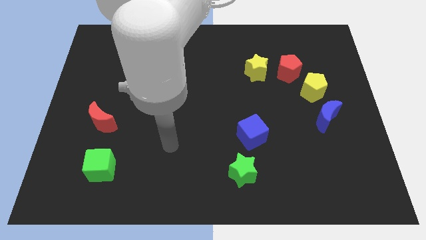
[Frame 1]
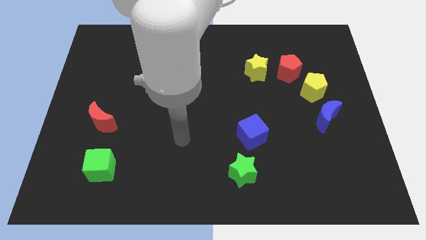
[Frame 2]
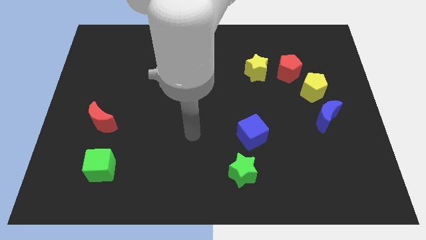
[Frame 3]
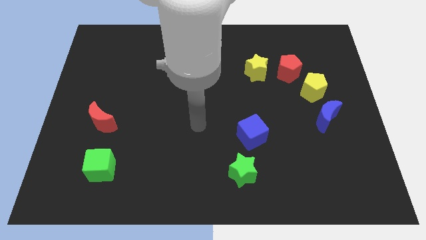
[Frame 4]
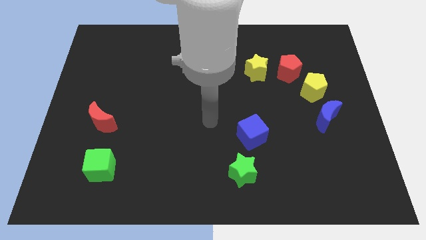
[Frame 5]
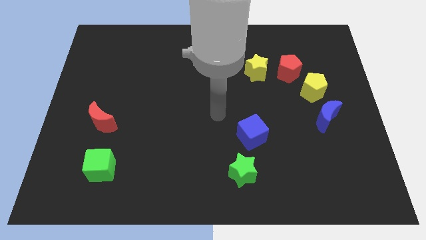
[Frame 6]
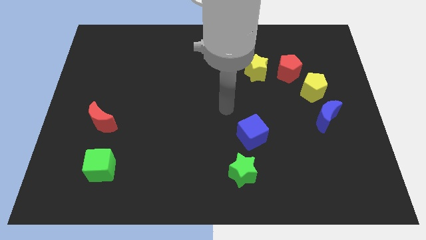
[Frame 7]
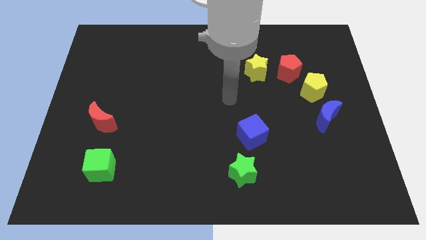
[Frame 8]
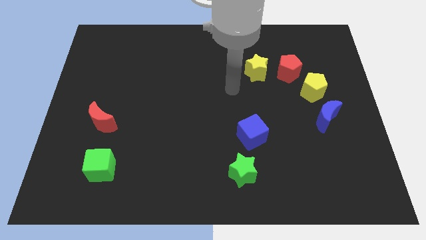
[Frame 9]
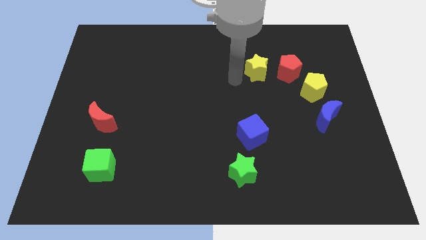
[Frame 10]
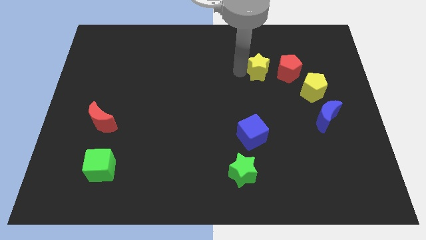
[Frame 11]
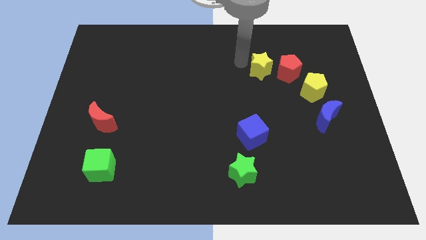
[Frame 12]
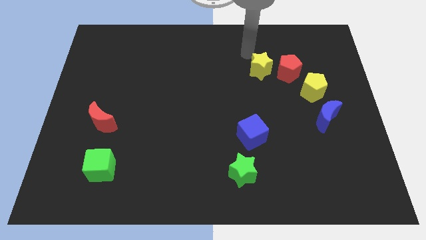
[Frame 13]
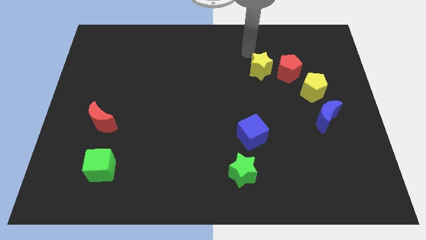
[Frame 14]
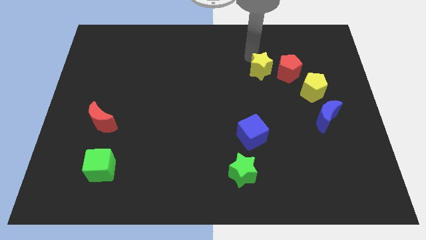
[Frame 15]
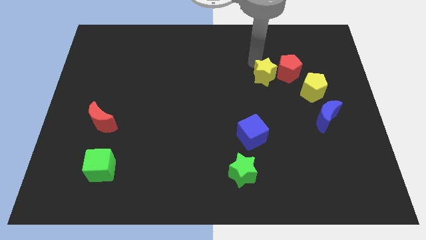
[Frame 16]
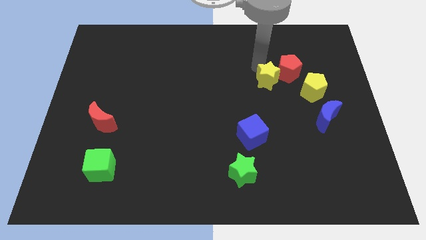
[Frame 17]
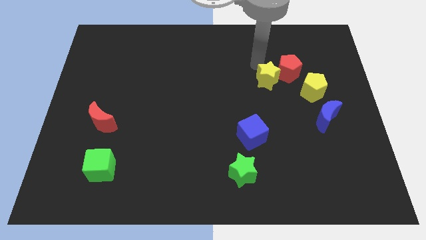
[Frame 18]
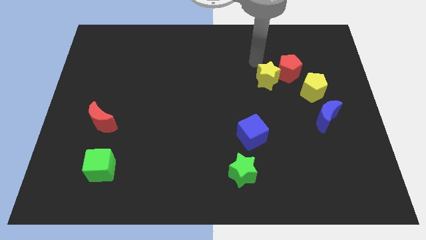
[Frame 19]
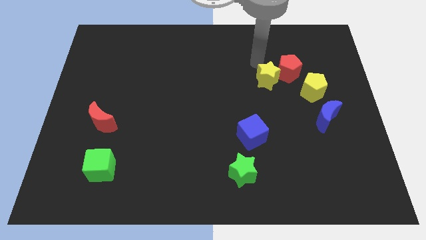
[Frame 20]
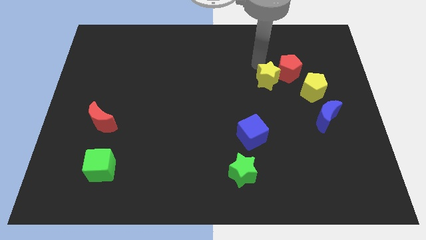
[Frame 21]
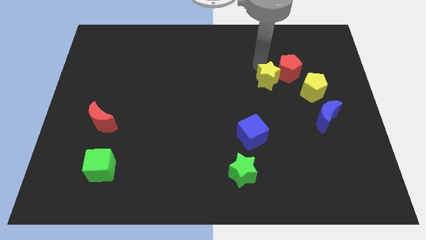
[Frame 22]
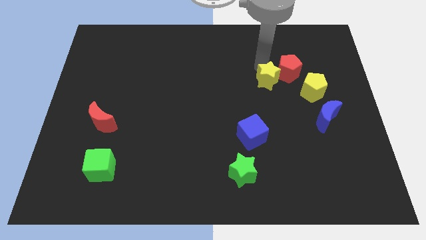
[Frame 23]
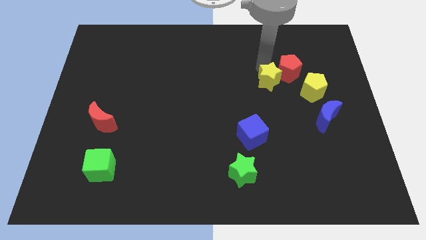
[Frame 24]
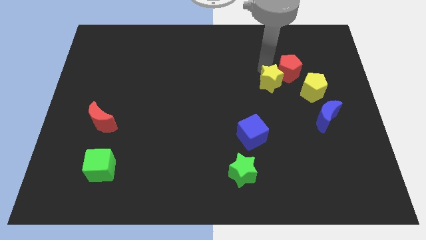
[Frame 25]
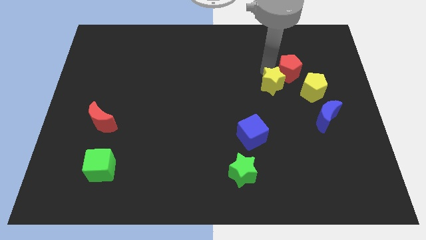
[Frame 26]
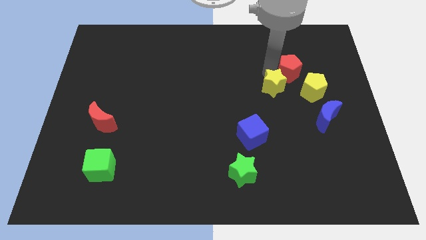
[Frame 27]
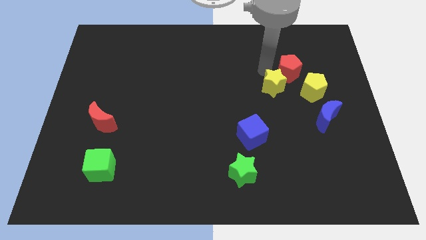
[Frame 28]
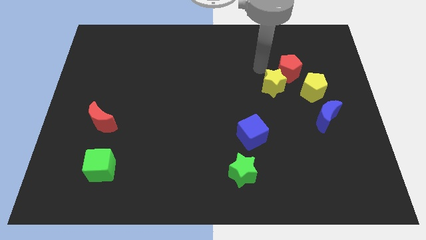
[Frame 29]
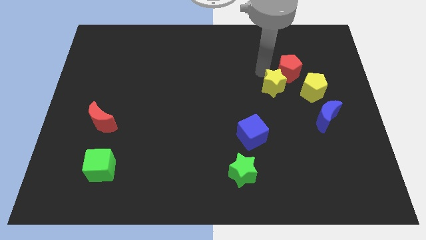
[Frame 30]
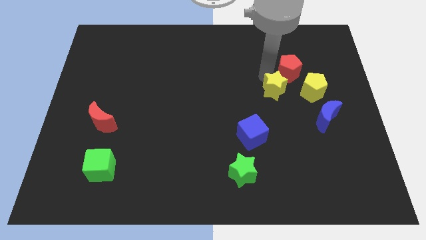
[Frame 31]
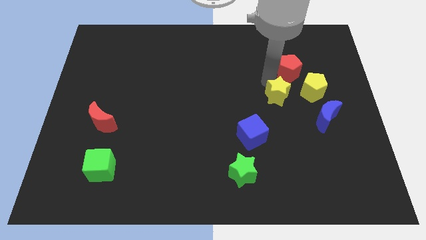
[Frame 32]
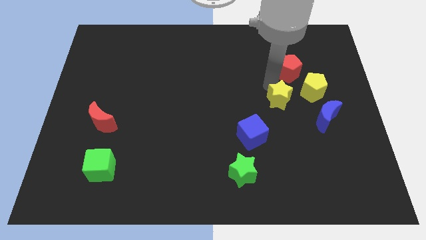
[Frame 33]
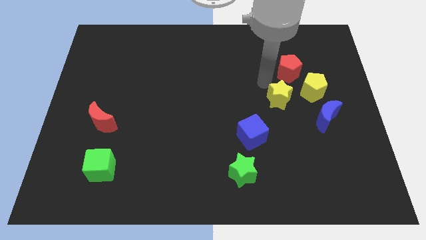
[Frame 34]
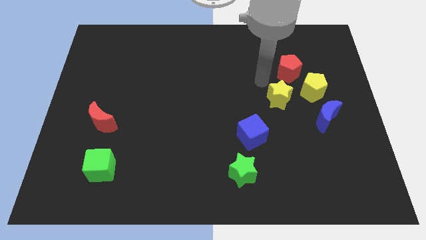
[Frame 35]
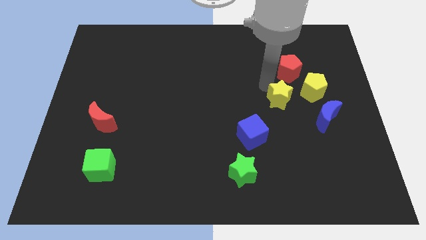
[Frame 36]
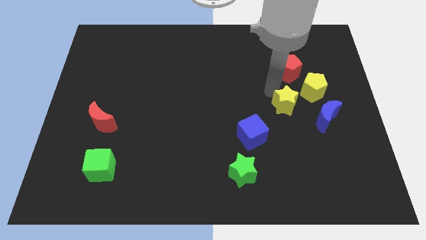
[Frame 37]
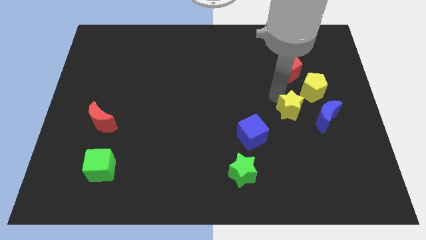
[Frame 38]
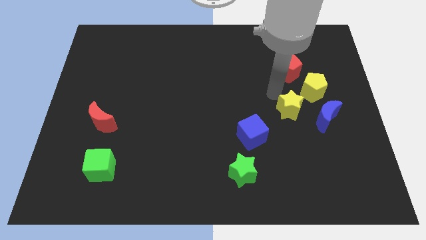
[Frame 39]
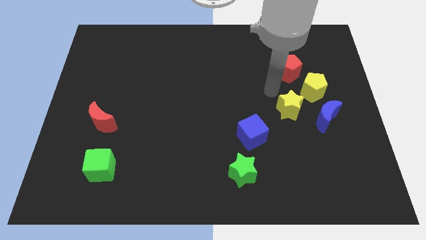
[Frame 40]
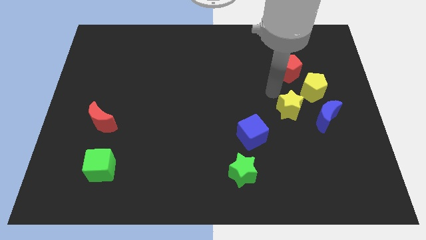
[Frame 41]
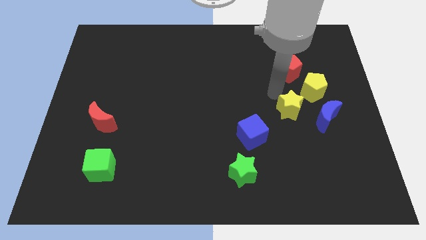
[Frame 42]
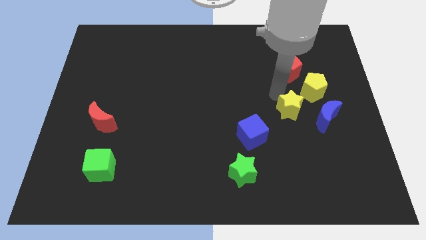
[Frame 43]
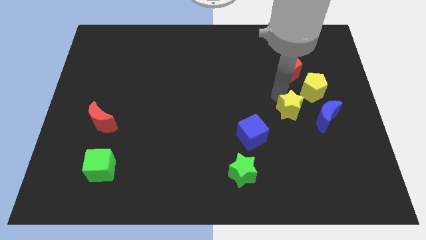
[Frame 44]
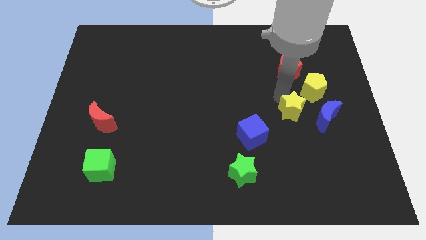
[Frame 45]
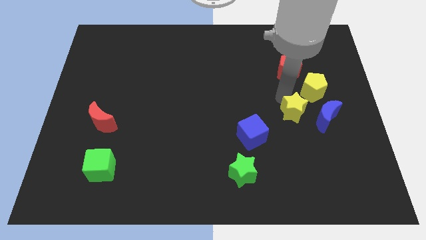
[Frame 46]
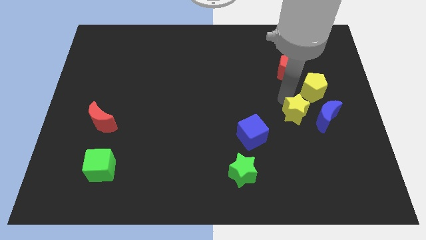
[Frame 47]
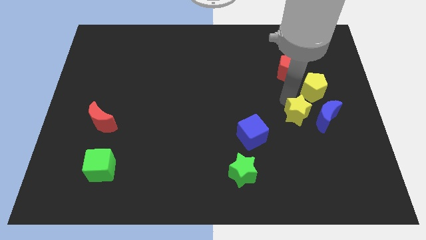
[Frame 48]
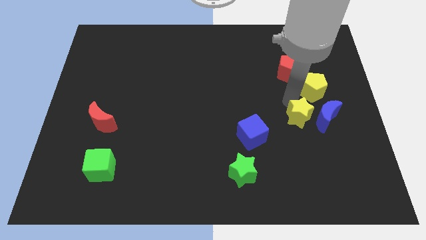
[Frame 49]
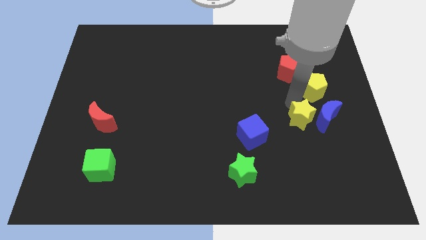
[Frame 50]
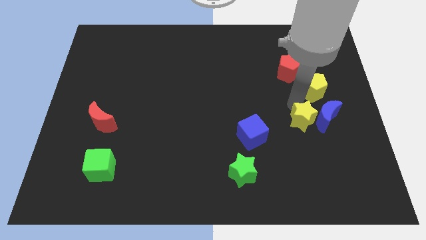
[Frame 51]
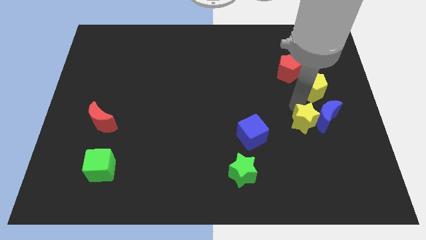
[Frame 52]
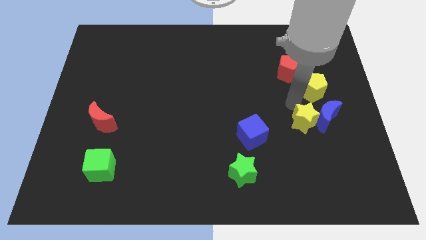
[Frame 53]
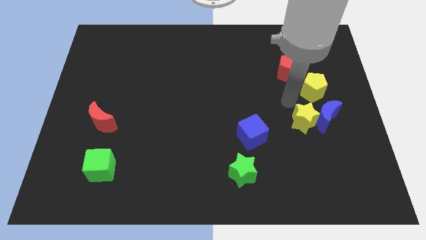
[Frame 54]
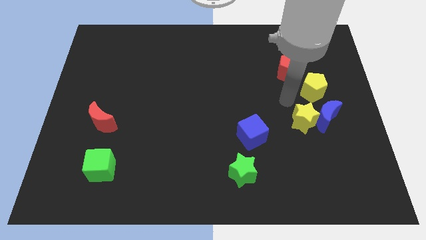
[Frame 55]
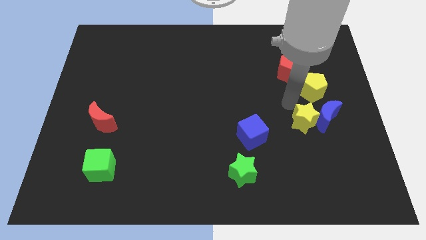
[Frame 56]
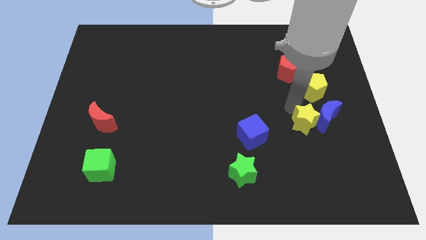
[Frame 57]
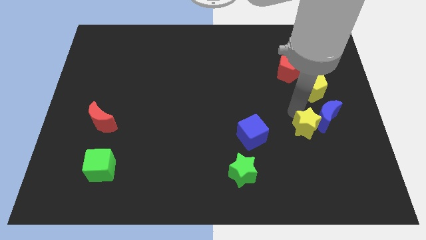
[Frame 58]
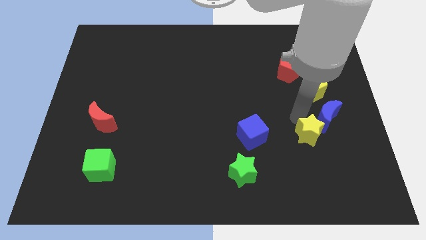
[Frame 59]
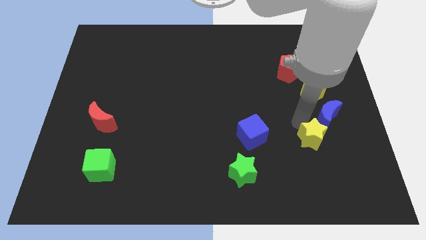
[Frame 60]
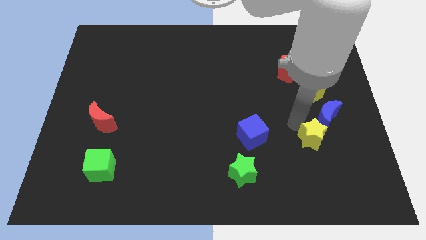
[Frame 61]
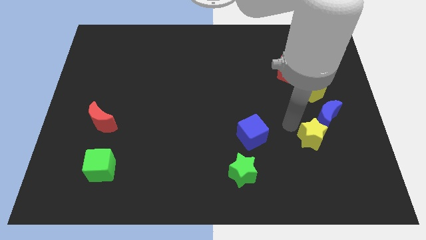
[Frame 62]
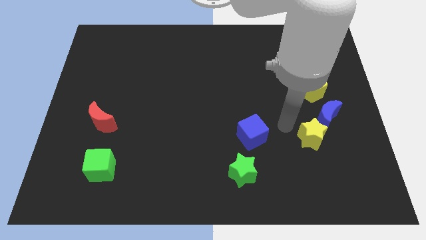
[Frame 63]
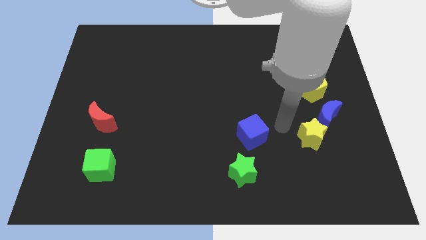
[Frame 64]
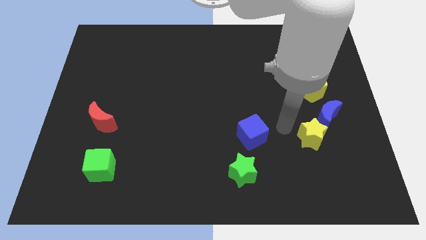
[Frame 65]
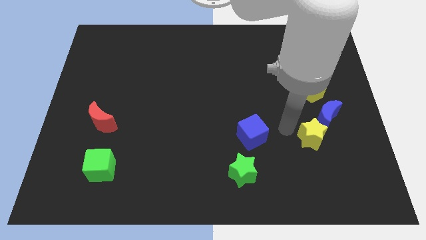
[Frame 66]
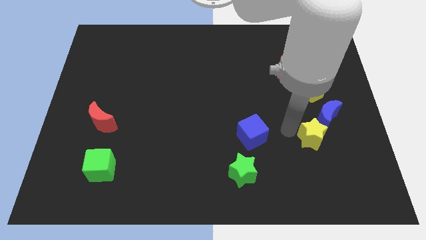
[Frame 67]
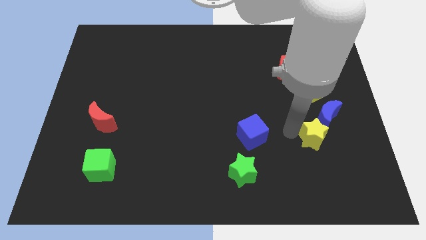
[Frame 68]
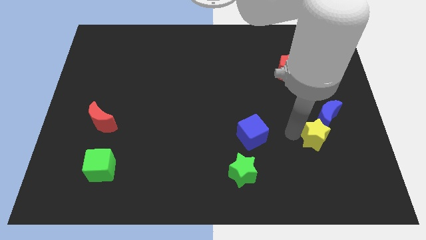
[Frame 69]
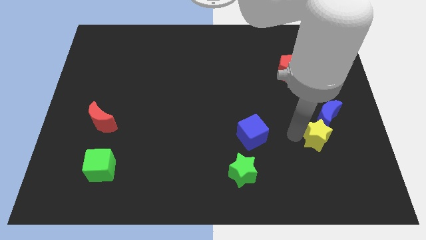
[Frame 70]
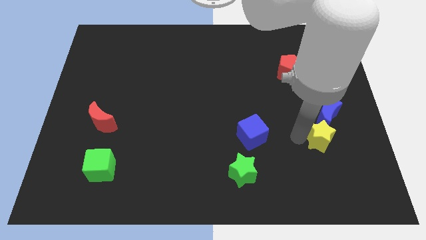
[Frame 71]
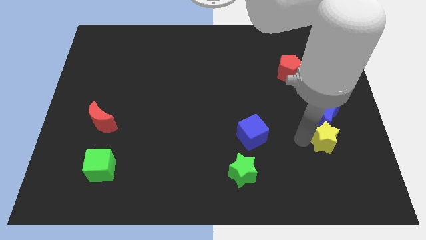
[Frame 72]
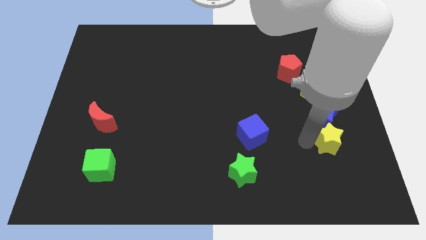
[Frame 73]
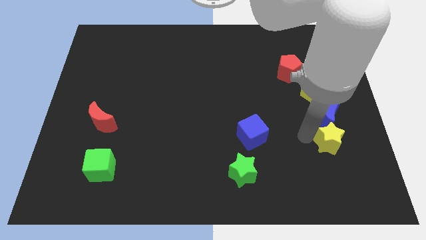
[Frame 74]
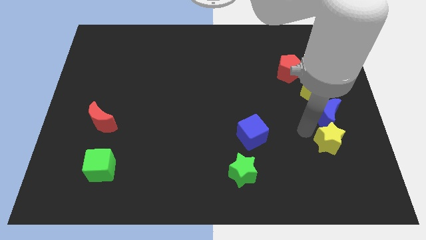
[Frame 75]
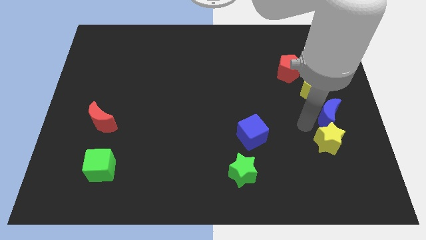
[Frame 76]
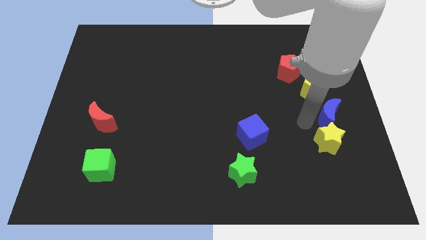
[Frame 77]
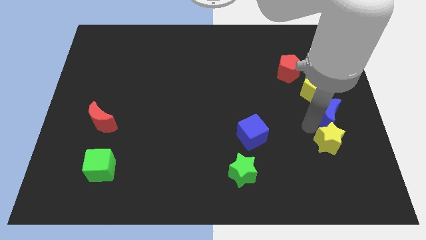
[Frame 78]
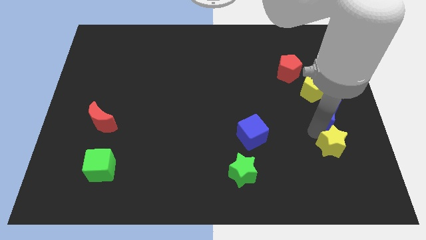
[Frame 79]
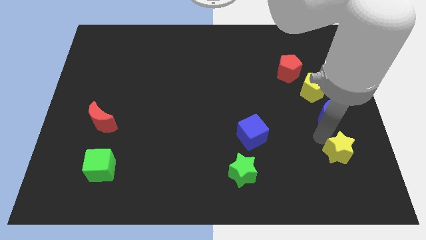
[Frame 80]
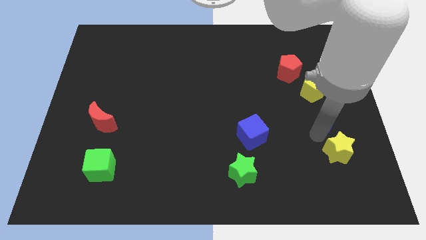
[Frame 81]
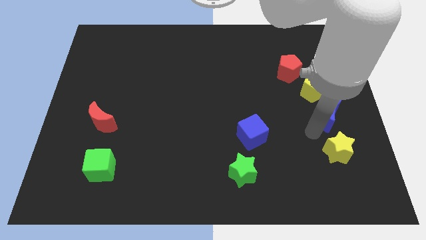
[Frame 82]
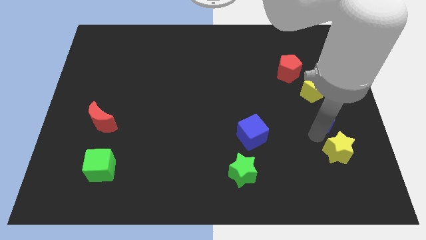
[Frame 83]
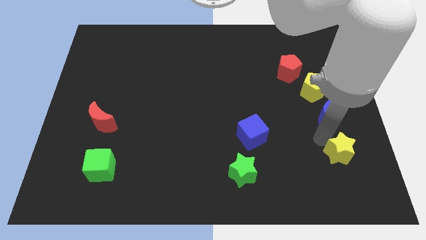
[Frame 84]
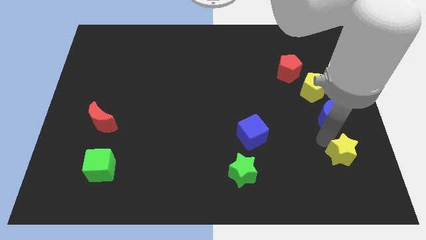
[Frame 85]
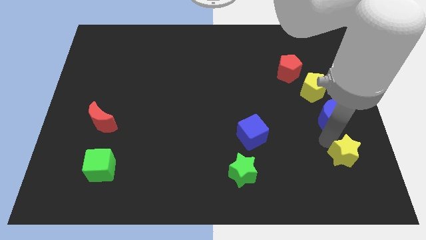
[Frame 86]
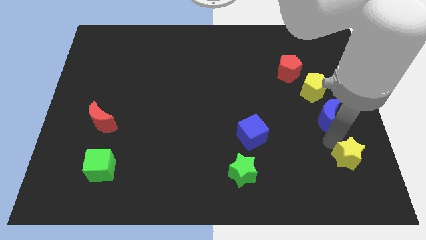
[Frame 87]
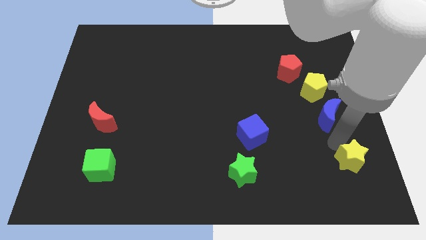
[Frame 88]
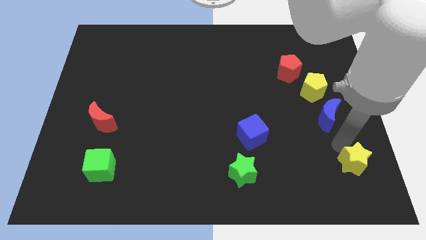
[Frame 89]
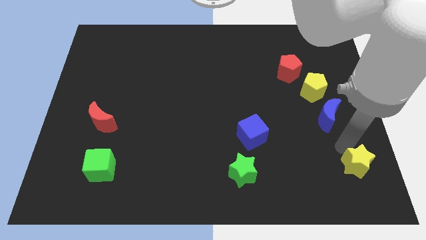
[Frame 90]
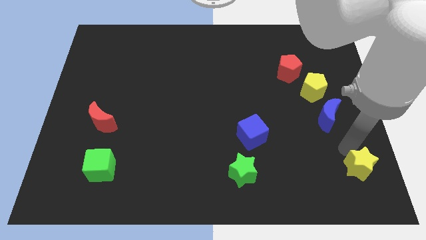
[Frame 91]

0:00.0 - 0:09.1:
push the yellow star to the bottom right of the board
